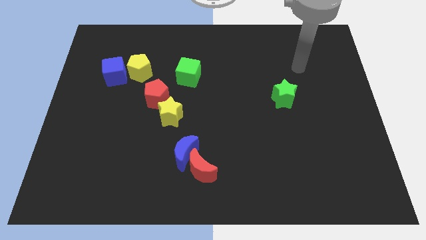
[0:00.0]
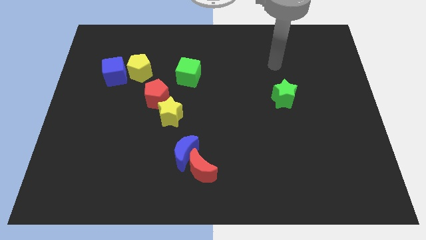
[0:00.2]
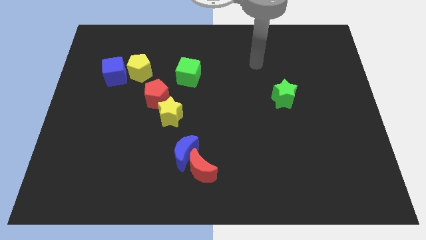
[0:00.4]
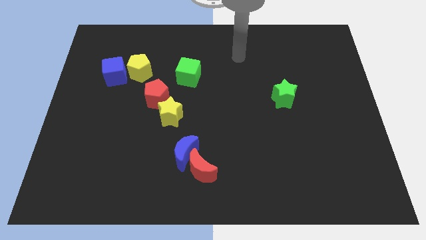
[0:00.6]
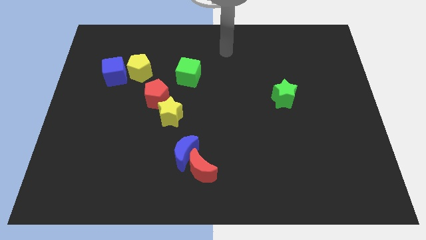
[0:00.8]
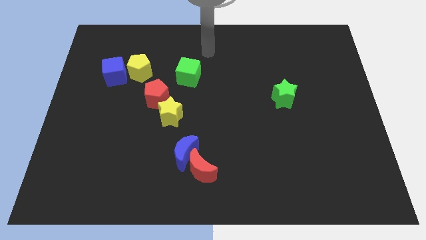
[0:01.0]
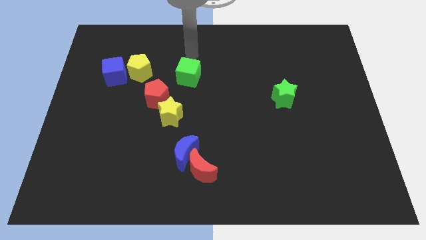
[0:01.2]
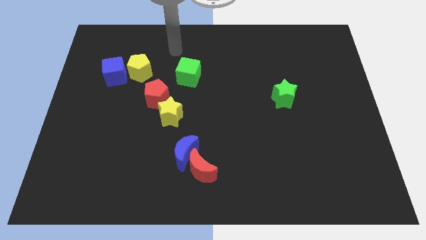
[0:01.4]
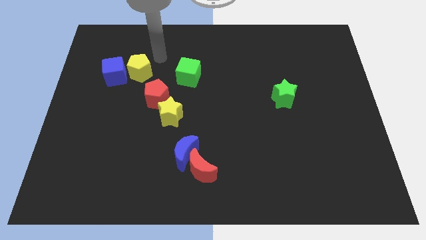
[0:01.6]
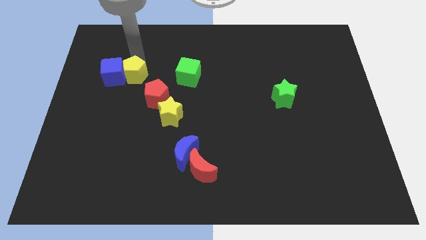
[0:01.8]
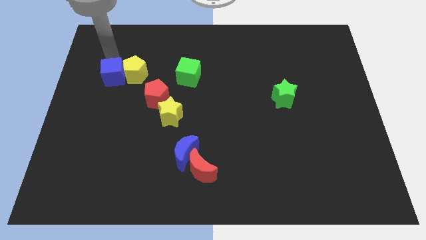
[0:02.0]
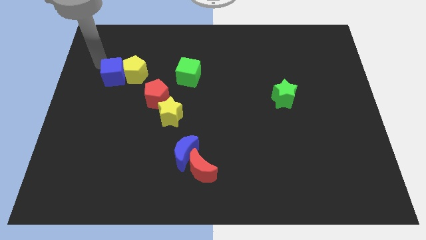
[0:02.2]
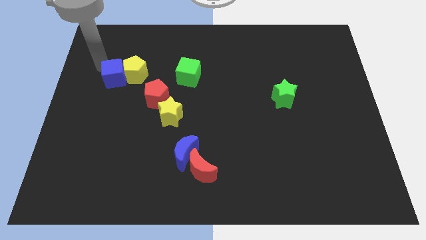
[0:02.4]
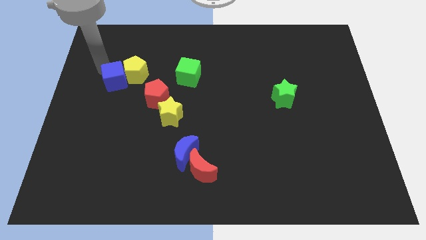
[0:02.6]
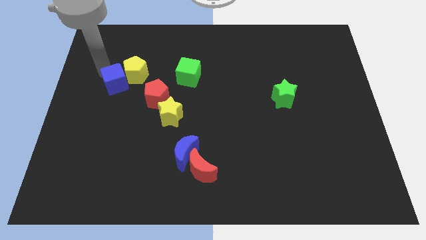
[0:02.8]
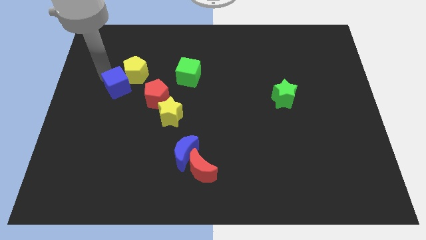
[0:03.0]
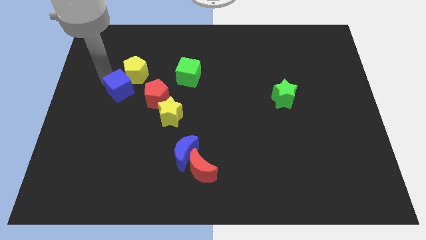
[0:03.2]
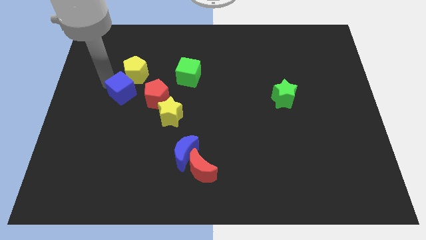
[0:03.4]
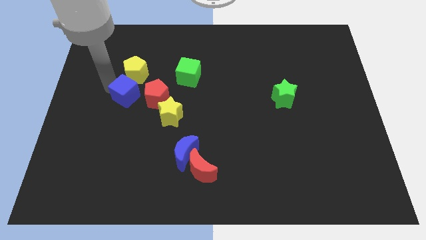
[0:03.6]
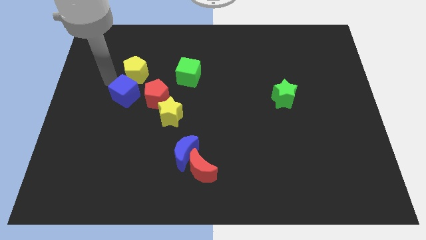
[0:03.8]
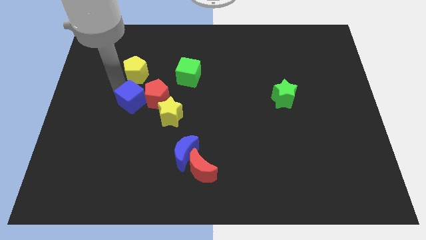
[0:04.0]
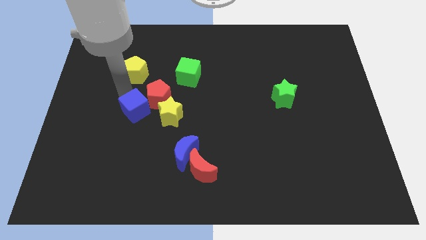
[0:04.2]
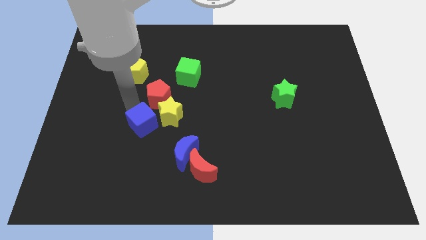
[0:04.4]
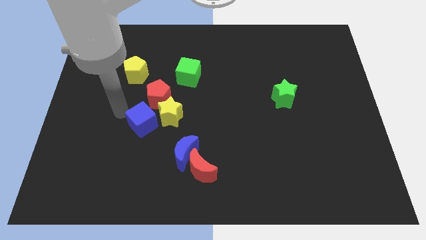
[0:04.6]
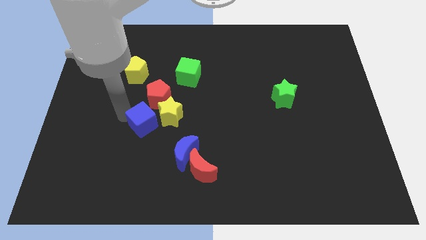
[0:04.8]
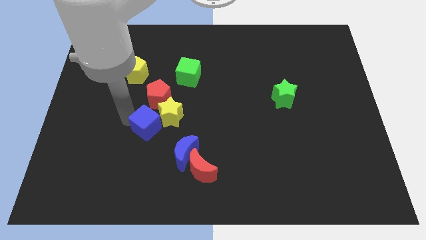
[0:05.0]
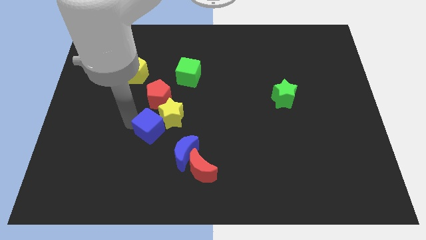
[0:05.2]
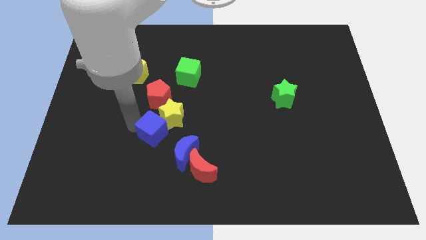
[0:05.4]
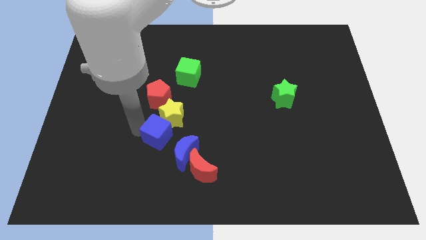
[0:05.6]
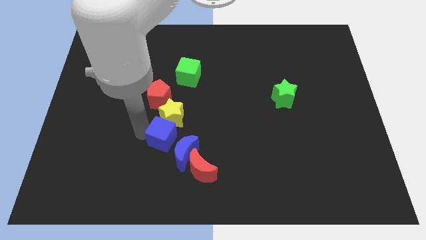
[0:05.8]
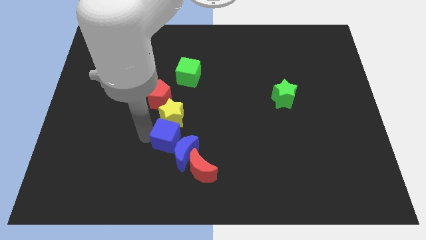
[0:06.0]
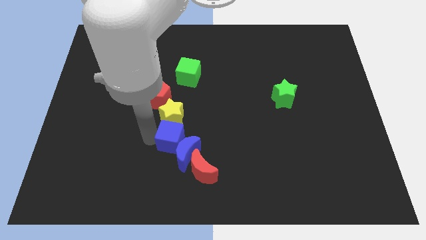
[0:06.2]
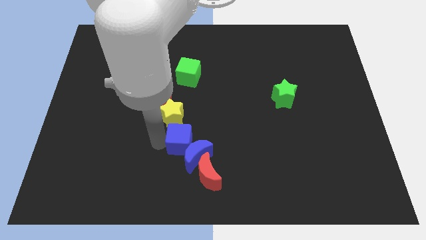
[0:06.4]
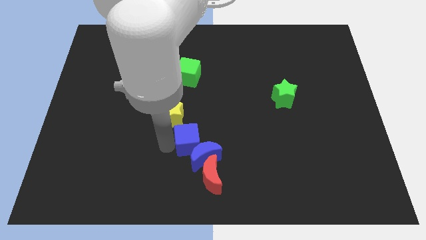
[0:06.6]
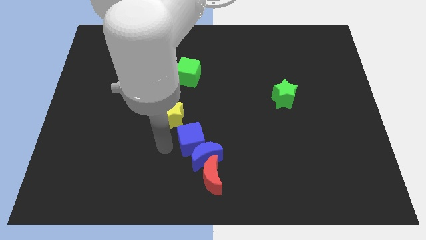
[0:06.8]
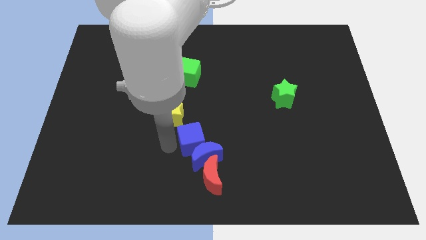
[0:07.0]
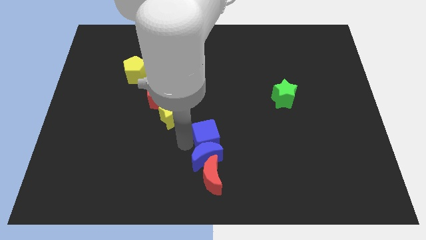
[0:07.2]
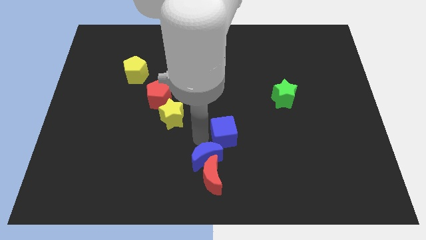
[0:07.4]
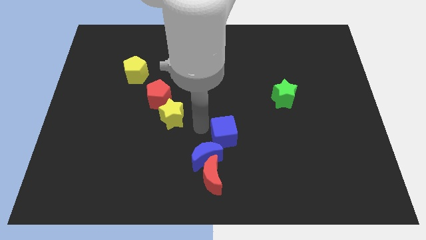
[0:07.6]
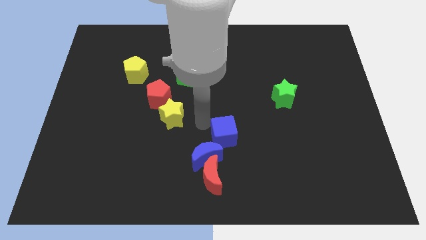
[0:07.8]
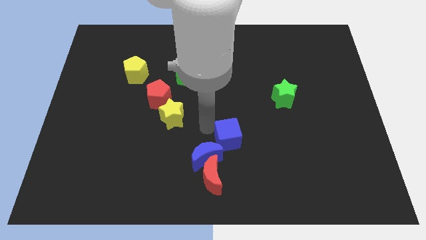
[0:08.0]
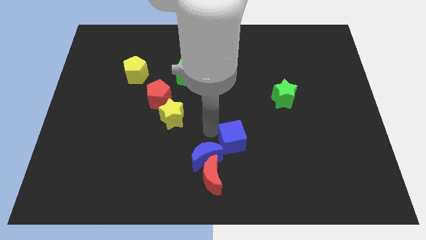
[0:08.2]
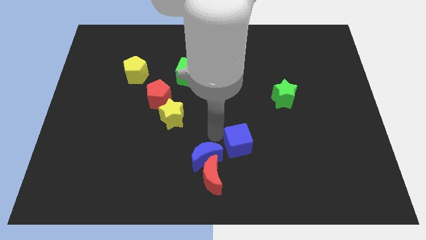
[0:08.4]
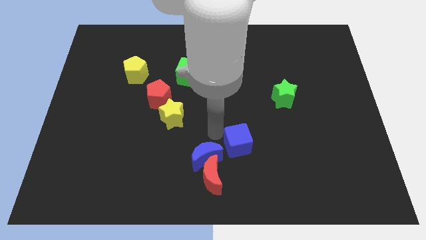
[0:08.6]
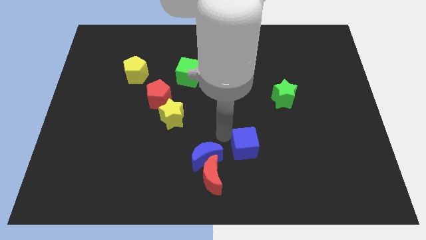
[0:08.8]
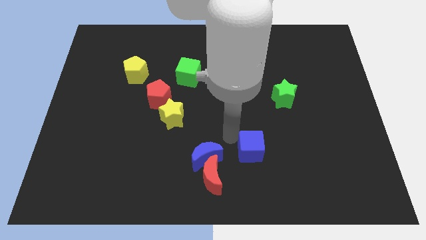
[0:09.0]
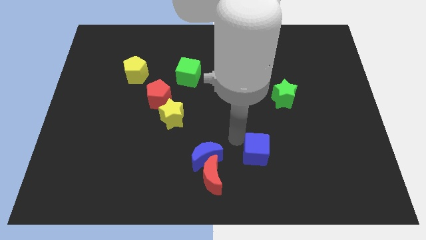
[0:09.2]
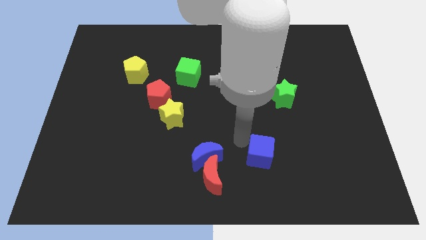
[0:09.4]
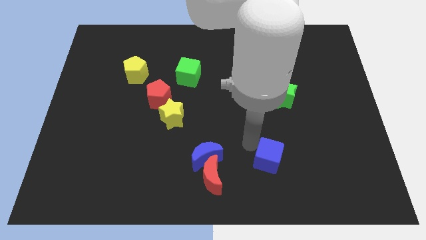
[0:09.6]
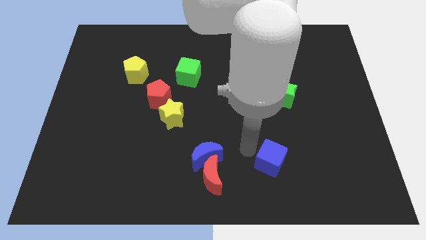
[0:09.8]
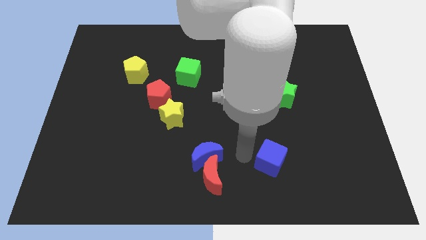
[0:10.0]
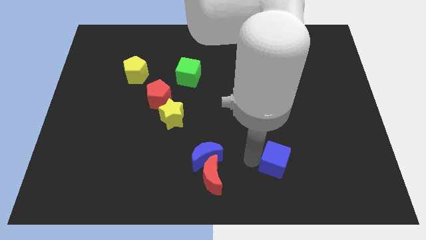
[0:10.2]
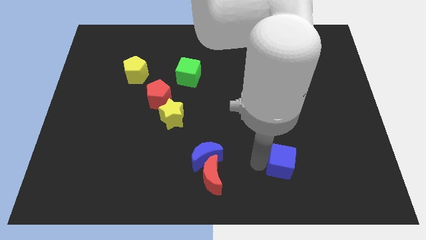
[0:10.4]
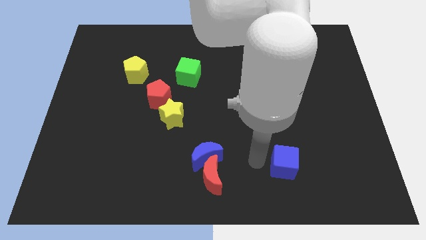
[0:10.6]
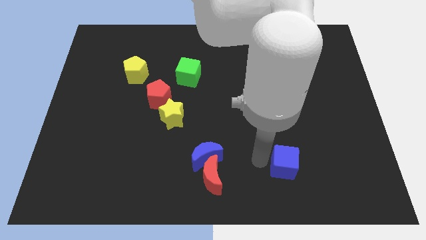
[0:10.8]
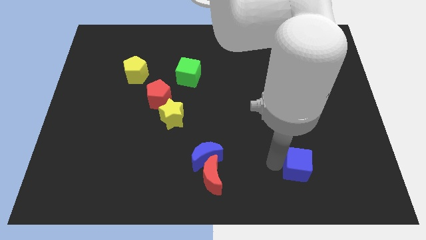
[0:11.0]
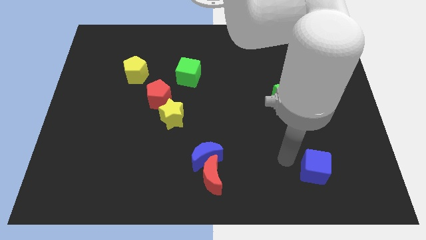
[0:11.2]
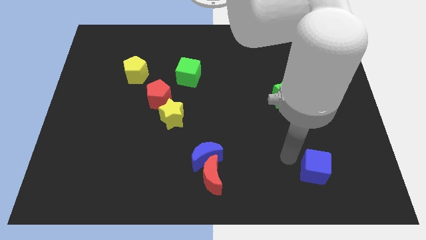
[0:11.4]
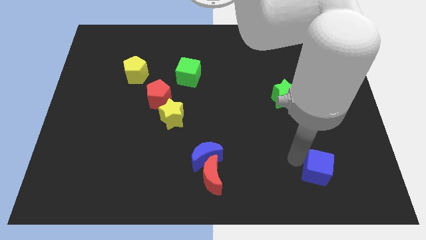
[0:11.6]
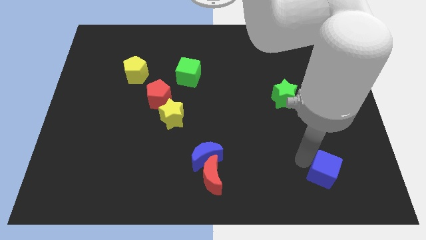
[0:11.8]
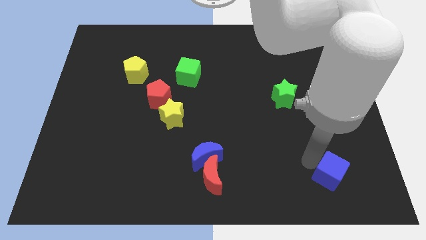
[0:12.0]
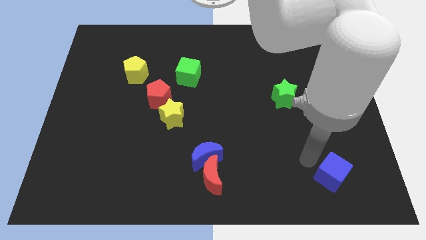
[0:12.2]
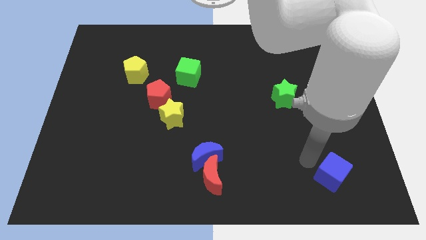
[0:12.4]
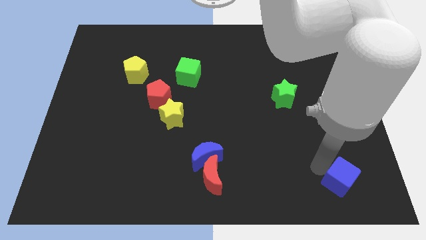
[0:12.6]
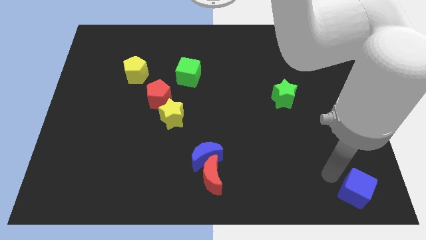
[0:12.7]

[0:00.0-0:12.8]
put the blue cube to the lower right corner
